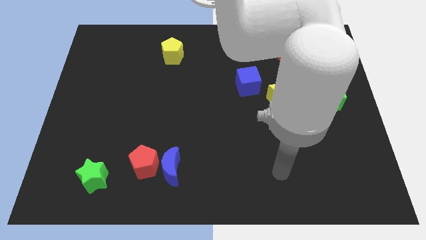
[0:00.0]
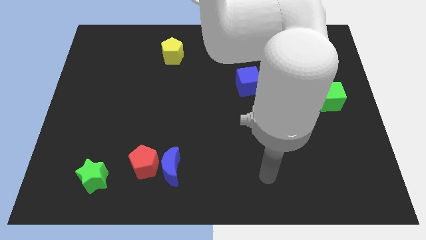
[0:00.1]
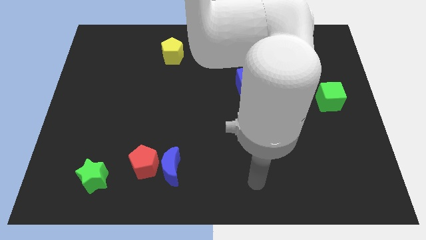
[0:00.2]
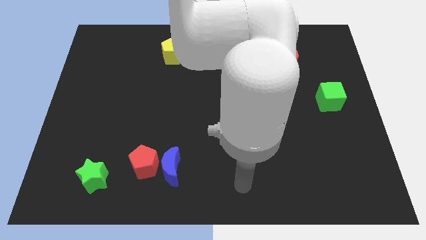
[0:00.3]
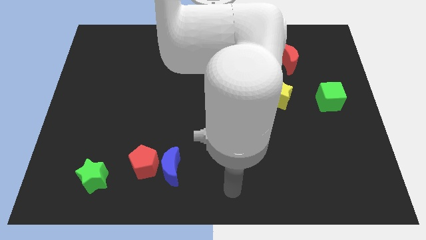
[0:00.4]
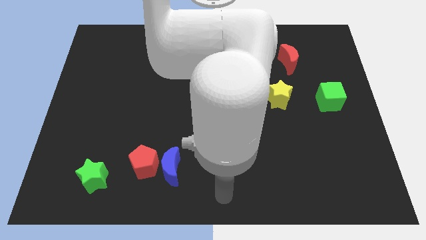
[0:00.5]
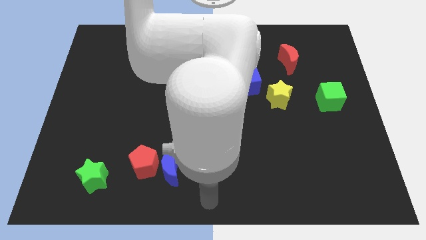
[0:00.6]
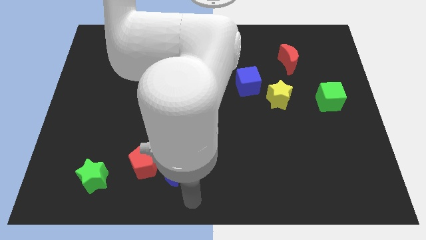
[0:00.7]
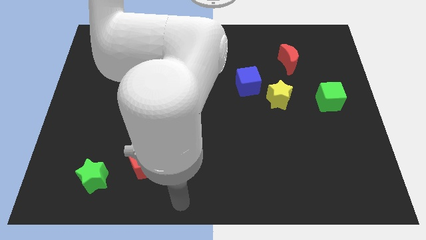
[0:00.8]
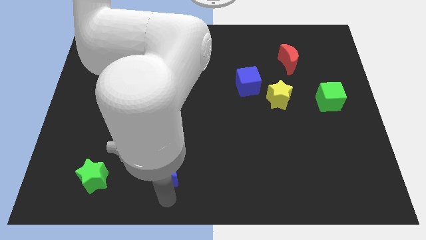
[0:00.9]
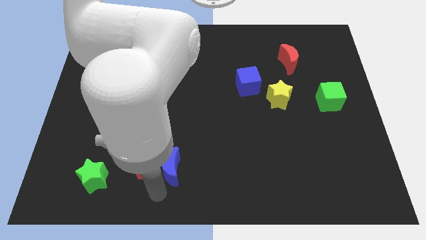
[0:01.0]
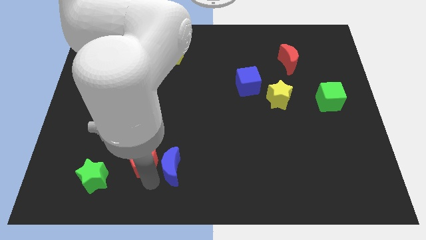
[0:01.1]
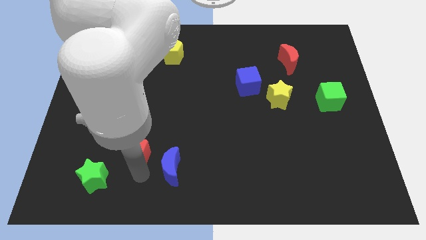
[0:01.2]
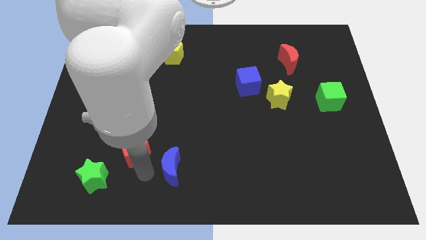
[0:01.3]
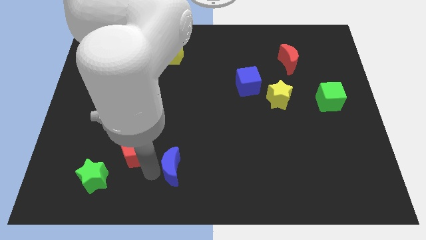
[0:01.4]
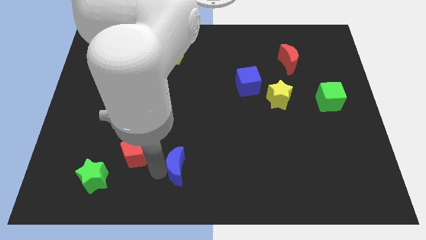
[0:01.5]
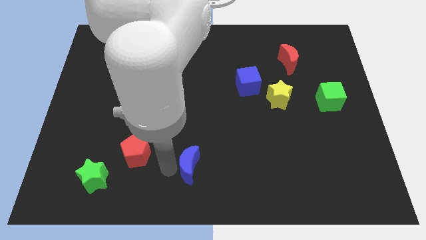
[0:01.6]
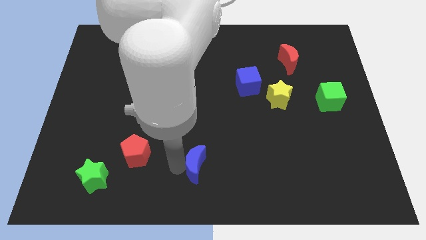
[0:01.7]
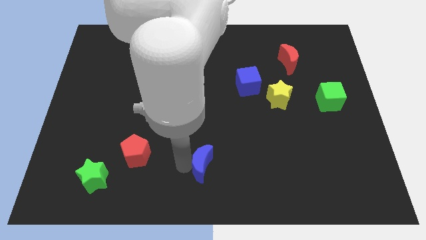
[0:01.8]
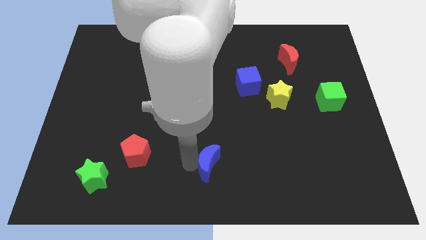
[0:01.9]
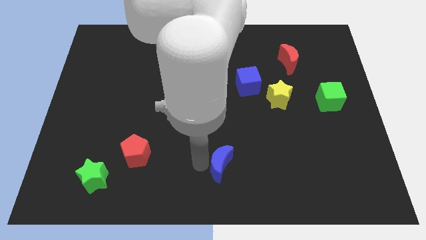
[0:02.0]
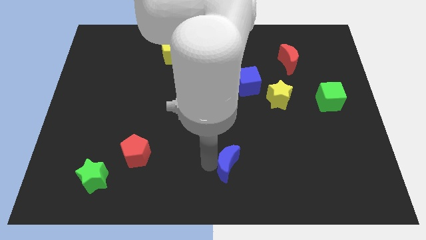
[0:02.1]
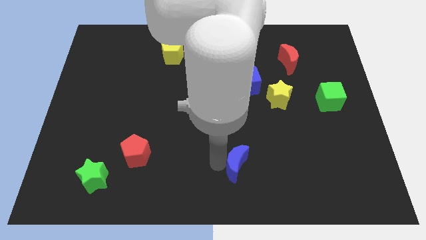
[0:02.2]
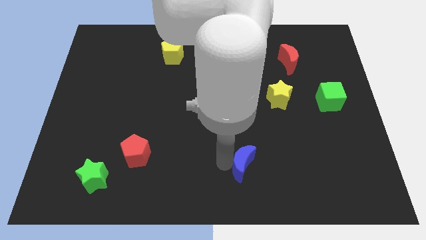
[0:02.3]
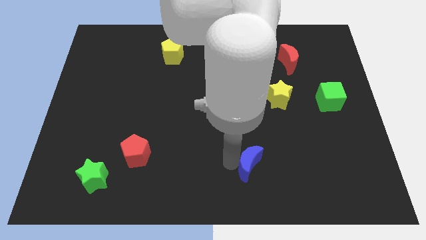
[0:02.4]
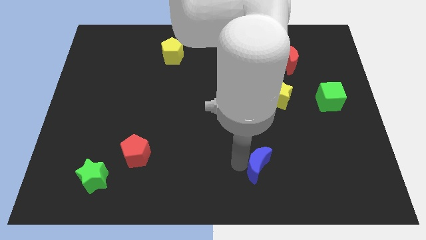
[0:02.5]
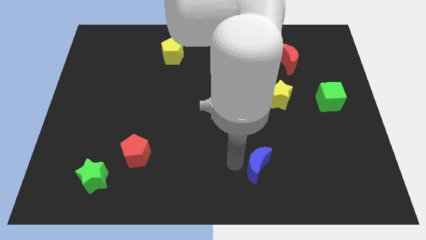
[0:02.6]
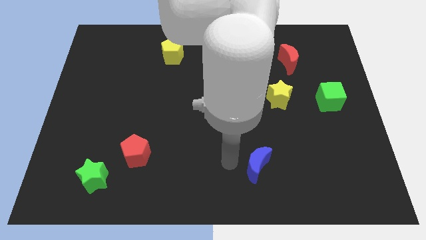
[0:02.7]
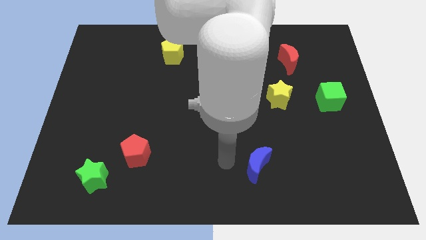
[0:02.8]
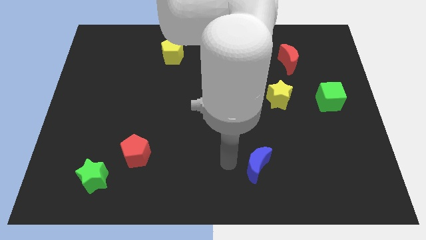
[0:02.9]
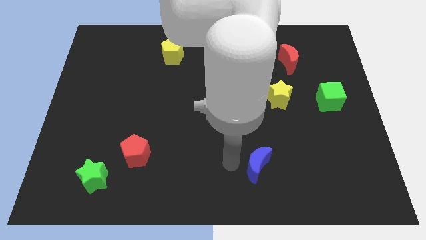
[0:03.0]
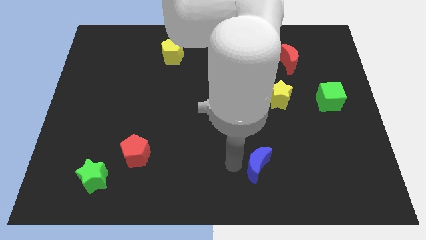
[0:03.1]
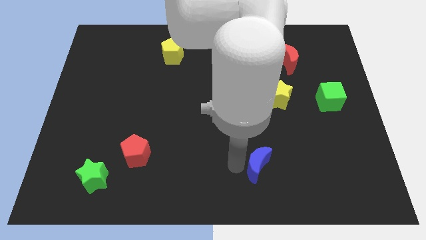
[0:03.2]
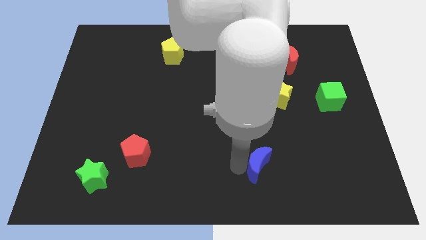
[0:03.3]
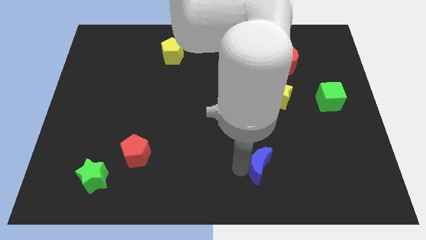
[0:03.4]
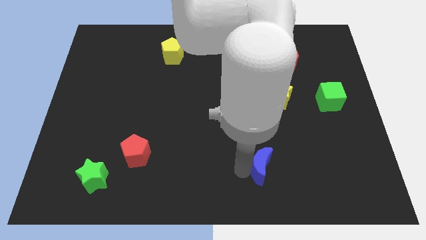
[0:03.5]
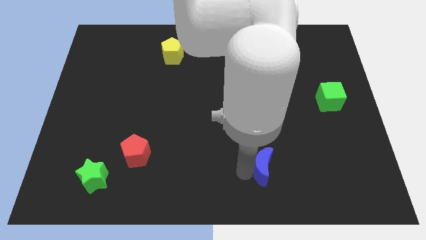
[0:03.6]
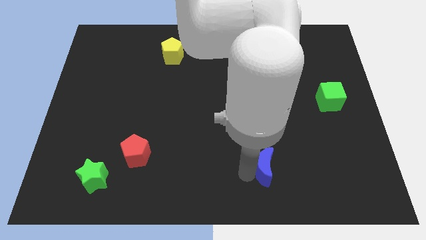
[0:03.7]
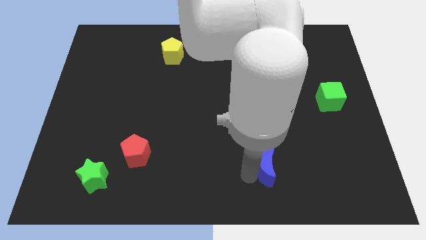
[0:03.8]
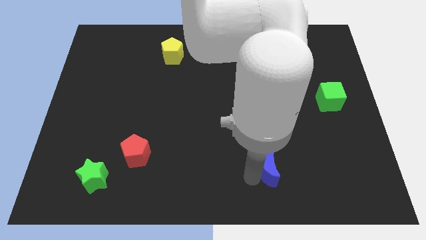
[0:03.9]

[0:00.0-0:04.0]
push the blue moon right

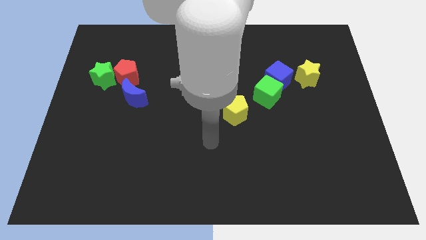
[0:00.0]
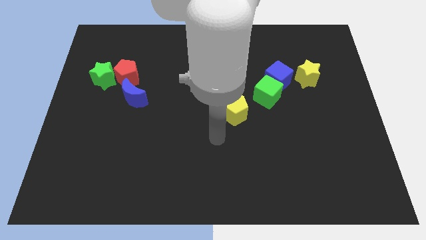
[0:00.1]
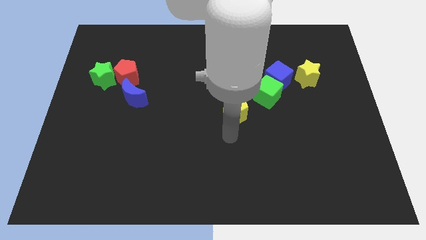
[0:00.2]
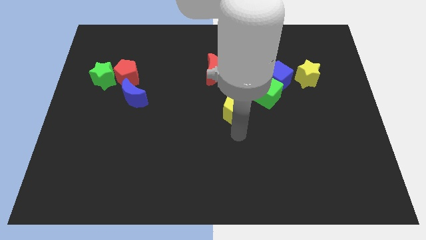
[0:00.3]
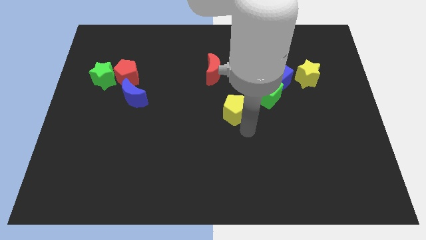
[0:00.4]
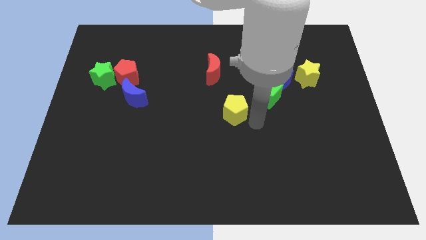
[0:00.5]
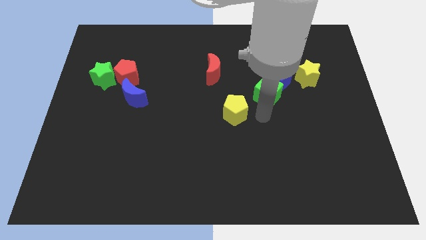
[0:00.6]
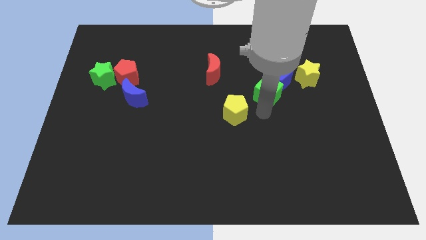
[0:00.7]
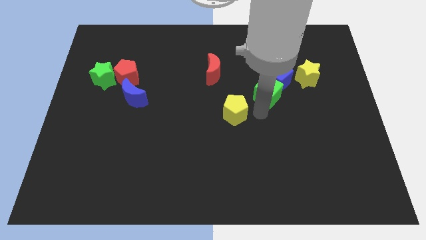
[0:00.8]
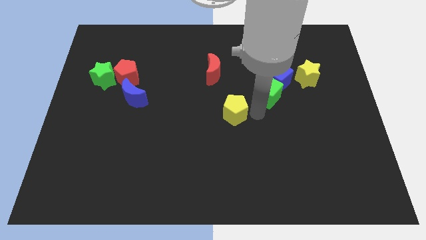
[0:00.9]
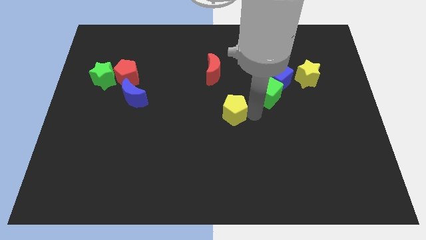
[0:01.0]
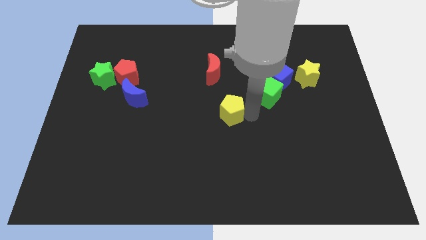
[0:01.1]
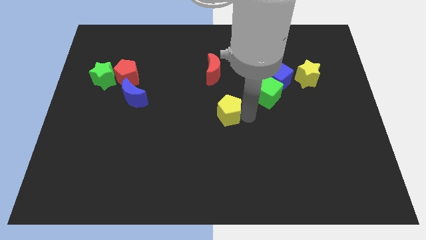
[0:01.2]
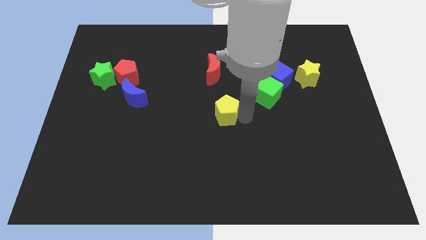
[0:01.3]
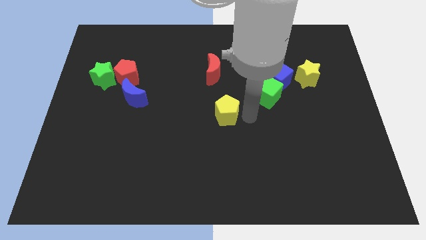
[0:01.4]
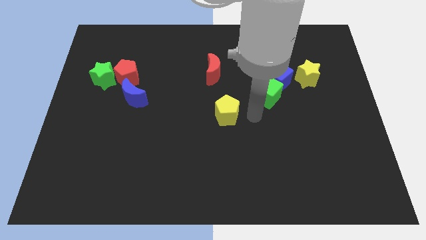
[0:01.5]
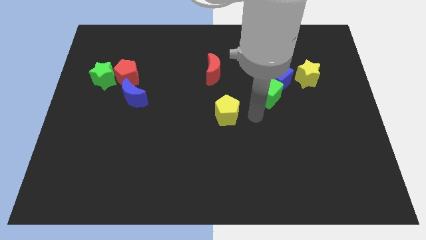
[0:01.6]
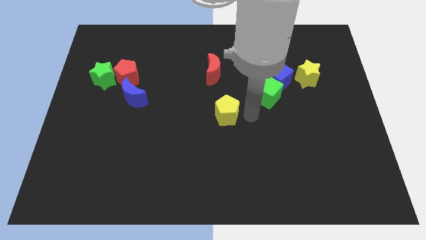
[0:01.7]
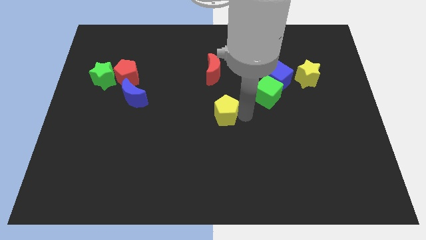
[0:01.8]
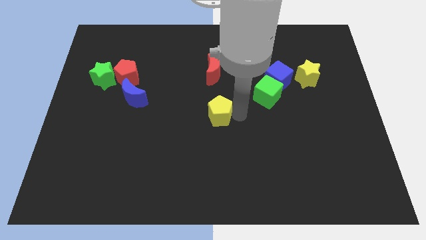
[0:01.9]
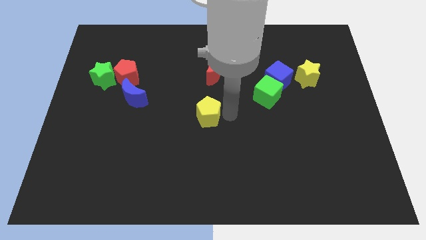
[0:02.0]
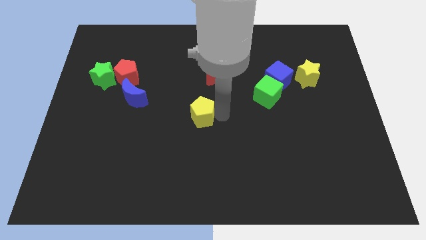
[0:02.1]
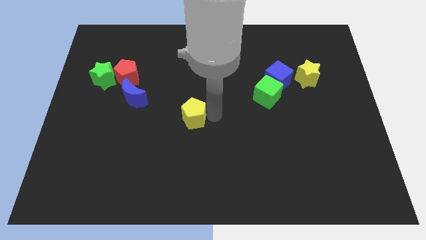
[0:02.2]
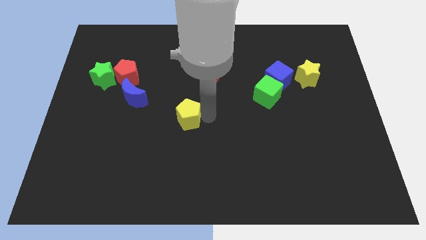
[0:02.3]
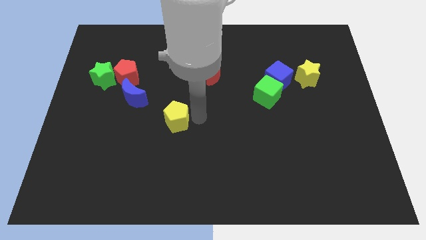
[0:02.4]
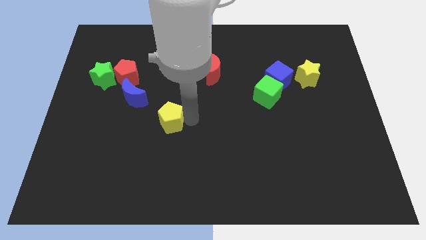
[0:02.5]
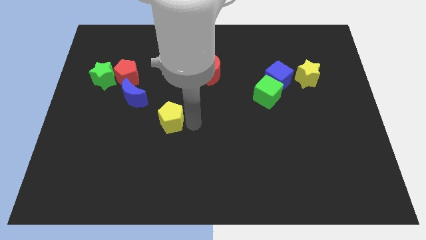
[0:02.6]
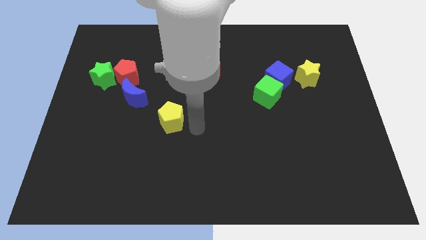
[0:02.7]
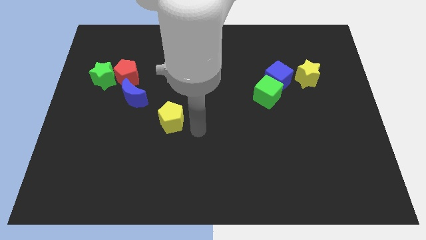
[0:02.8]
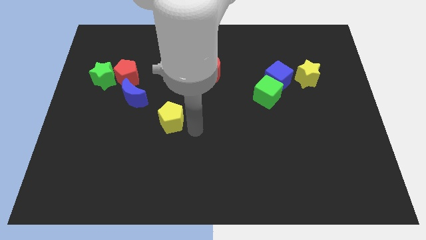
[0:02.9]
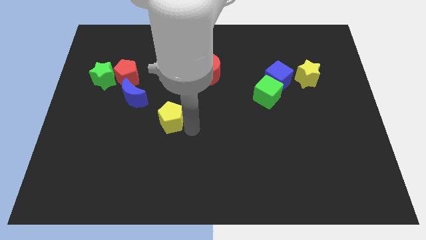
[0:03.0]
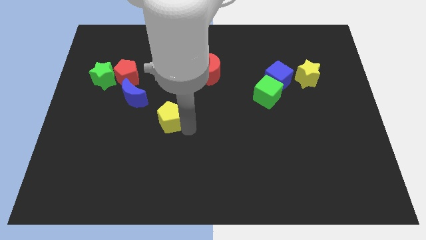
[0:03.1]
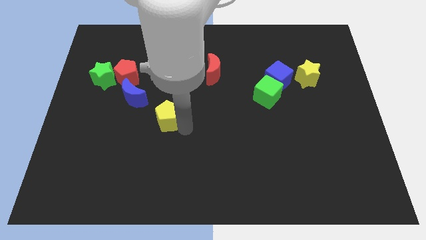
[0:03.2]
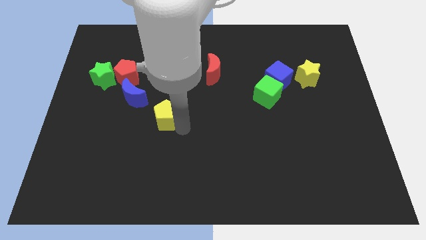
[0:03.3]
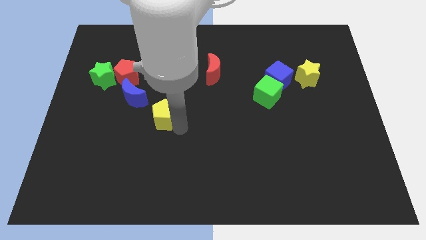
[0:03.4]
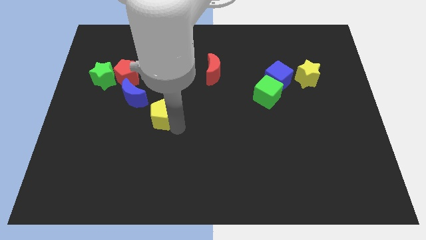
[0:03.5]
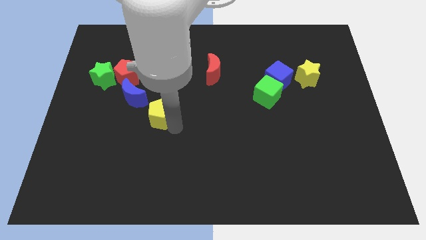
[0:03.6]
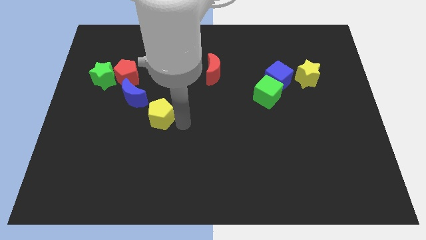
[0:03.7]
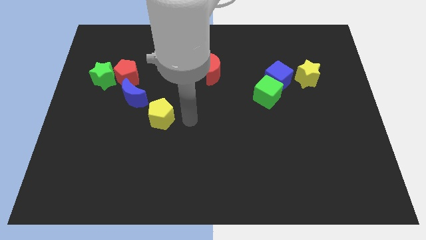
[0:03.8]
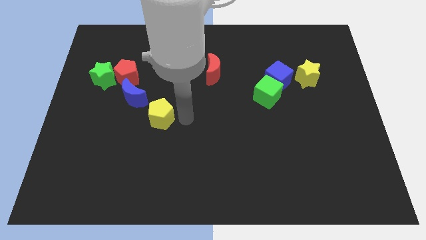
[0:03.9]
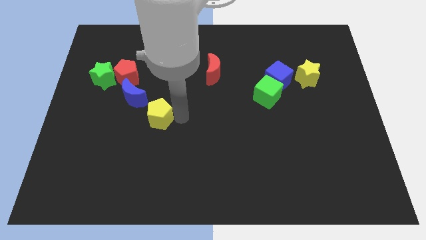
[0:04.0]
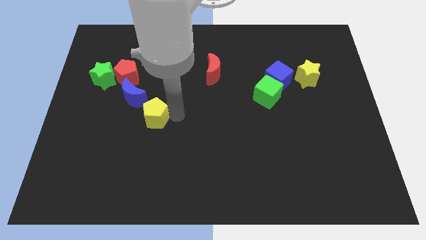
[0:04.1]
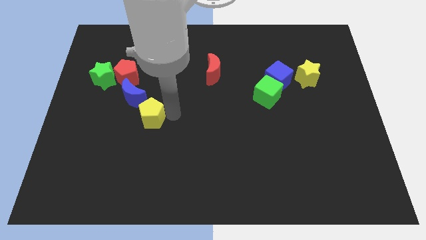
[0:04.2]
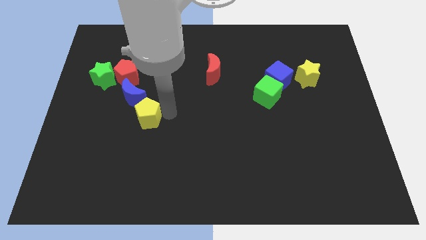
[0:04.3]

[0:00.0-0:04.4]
slide the yellow pentagon to the left
